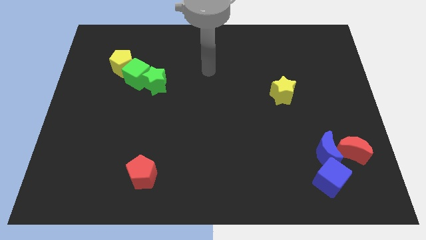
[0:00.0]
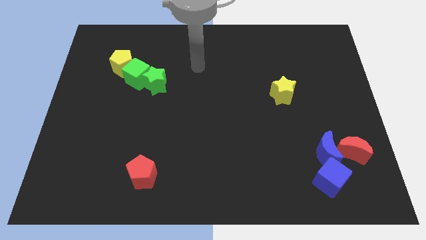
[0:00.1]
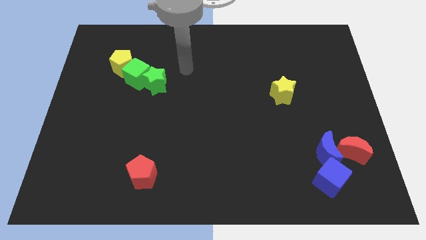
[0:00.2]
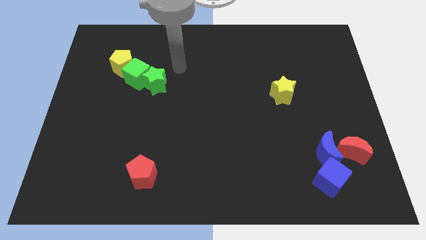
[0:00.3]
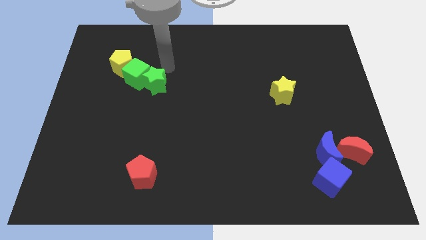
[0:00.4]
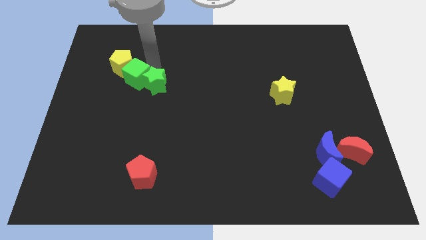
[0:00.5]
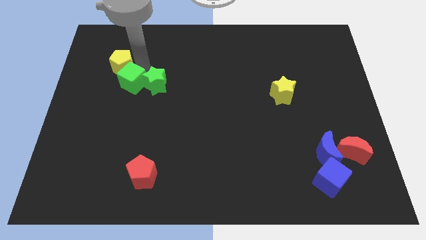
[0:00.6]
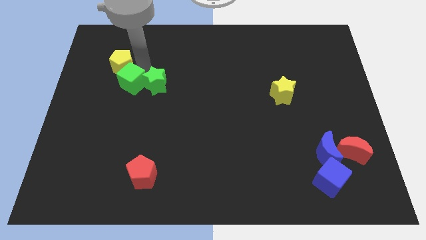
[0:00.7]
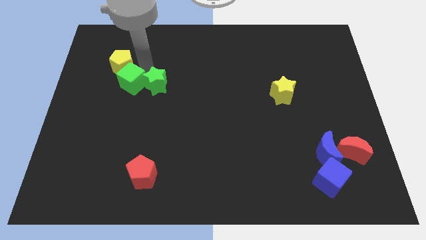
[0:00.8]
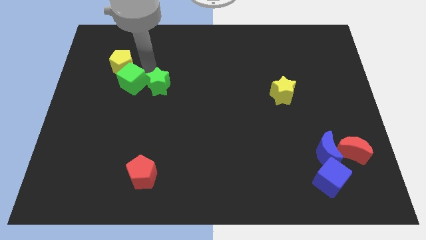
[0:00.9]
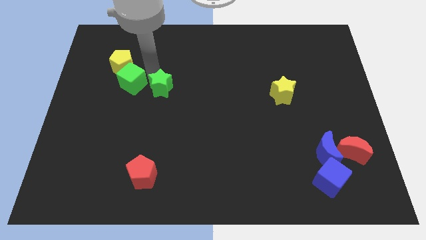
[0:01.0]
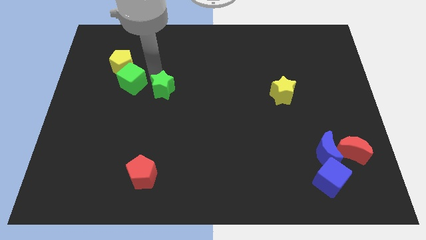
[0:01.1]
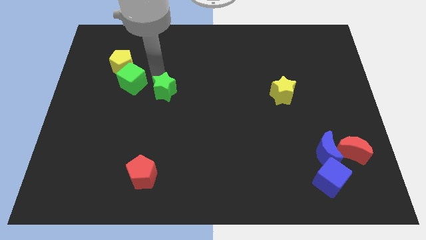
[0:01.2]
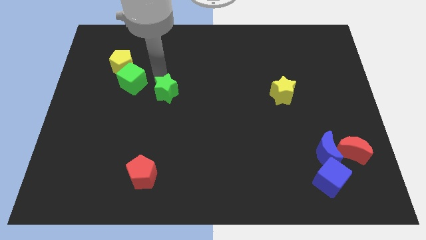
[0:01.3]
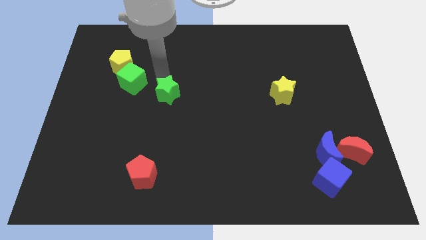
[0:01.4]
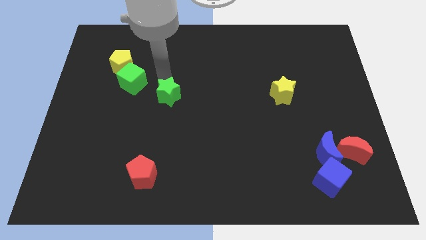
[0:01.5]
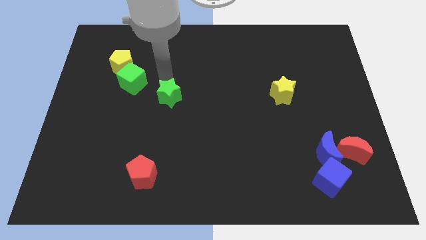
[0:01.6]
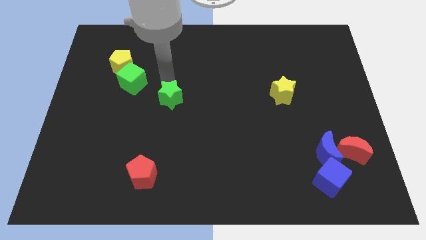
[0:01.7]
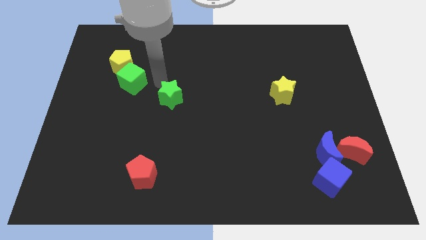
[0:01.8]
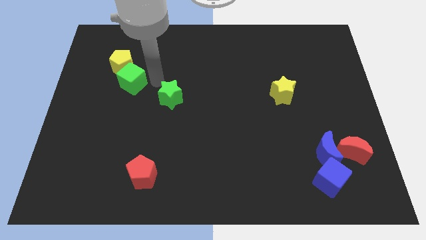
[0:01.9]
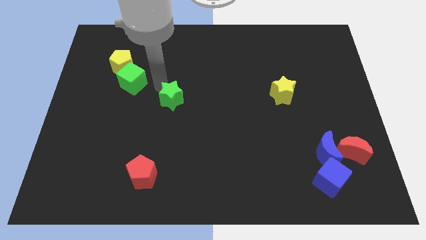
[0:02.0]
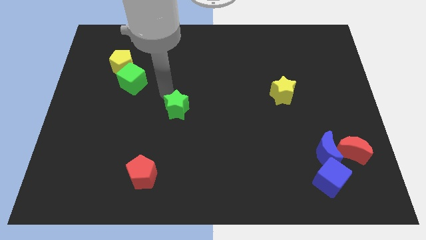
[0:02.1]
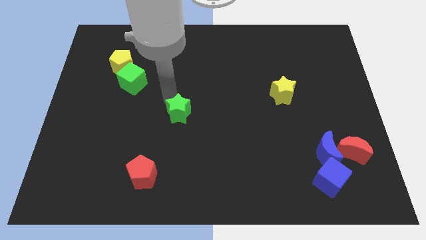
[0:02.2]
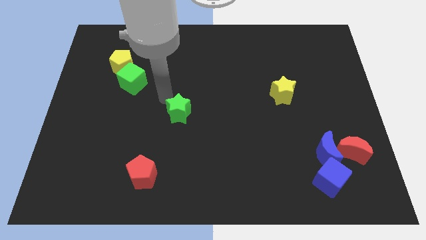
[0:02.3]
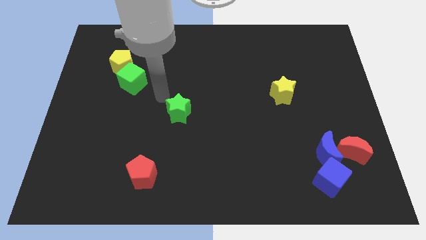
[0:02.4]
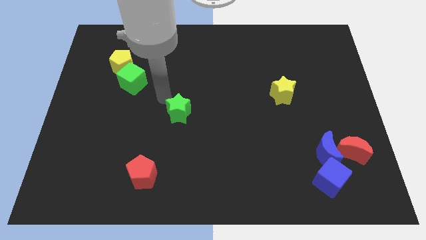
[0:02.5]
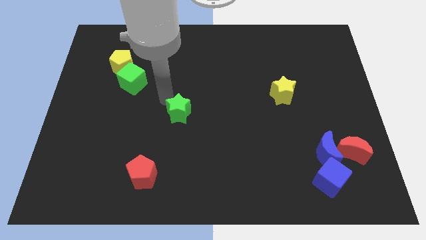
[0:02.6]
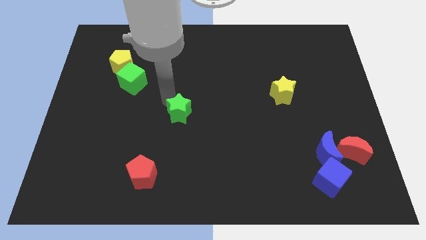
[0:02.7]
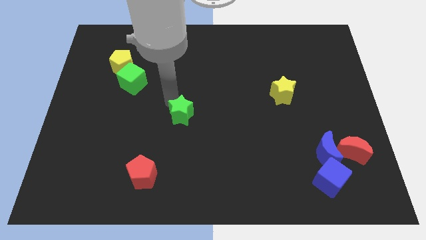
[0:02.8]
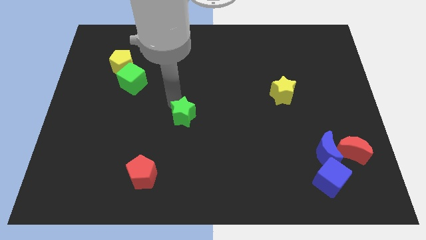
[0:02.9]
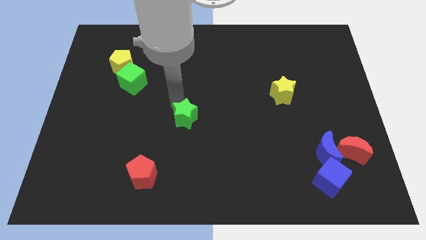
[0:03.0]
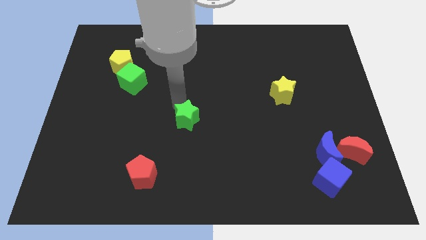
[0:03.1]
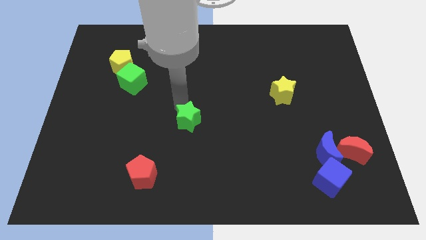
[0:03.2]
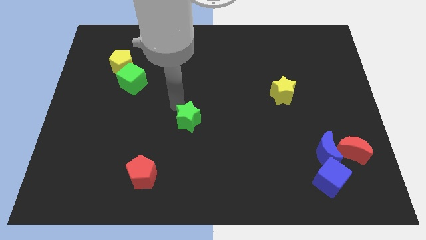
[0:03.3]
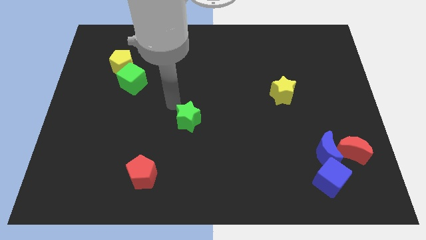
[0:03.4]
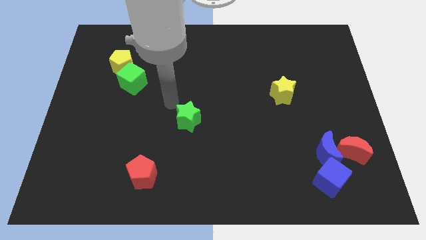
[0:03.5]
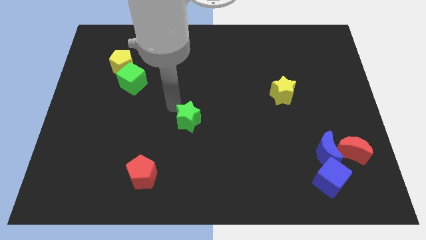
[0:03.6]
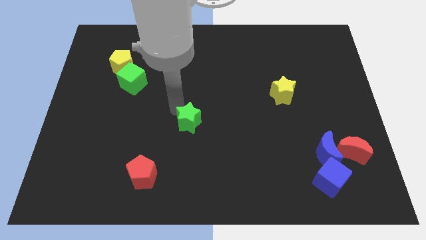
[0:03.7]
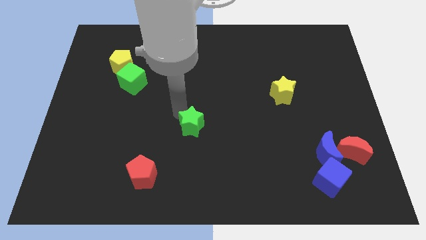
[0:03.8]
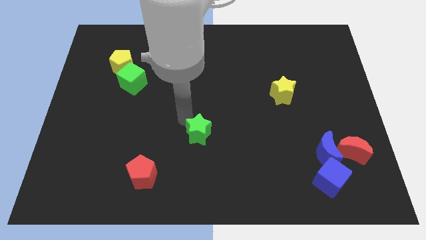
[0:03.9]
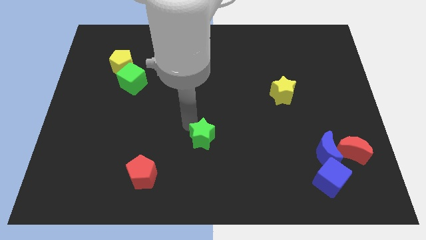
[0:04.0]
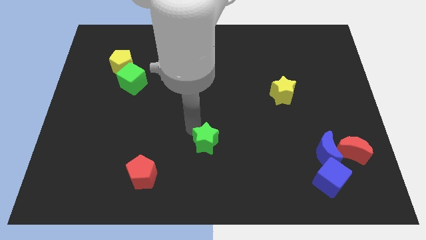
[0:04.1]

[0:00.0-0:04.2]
move the green star diagonally down and right

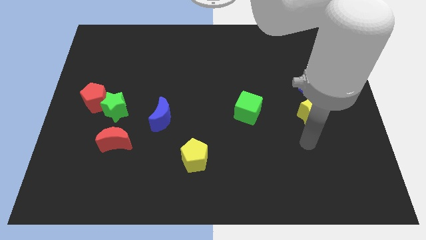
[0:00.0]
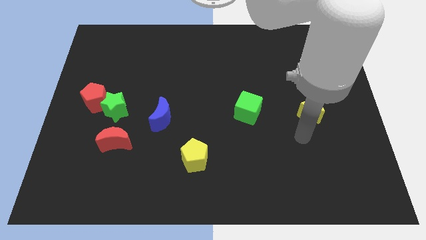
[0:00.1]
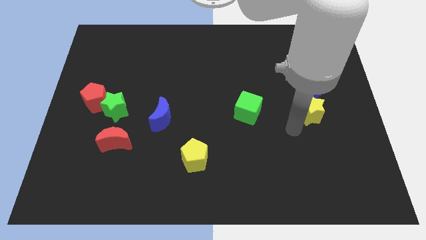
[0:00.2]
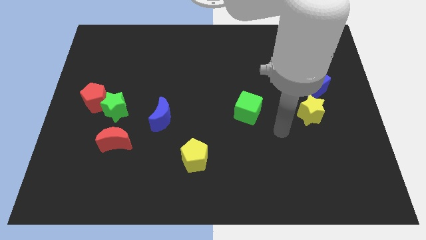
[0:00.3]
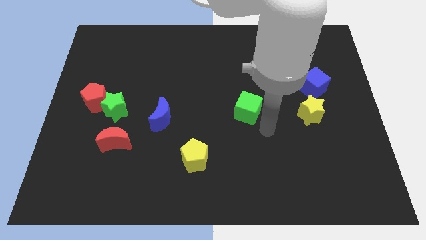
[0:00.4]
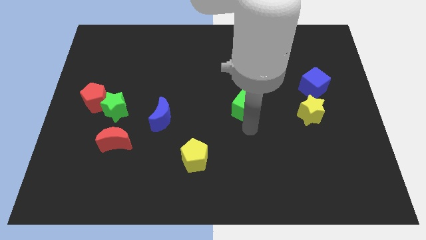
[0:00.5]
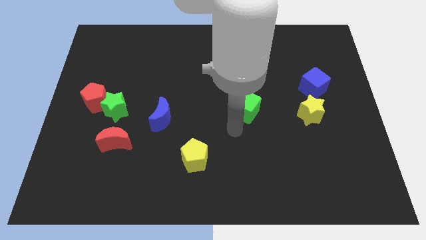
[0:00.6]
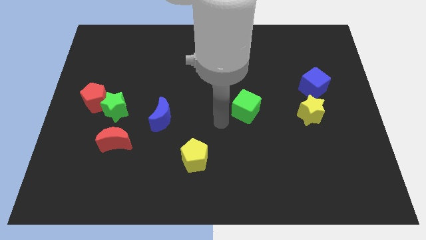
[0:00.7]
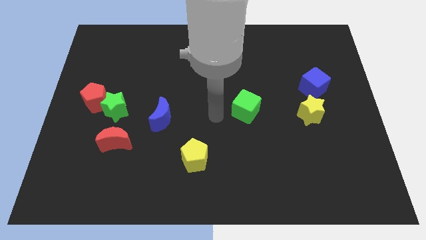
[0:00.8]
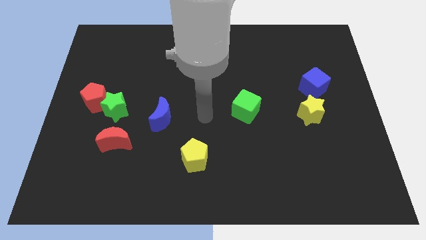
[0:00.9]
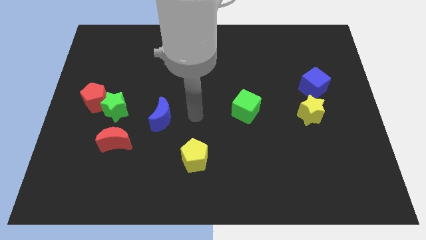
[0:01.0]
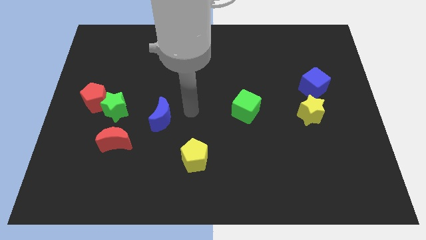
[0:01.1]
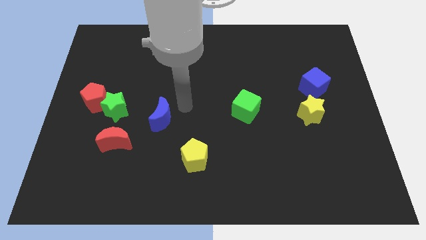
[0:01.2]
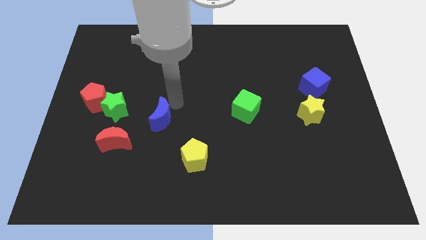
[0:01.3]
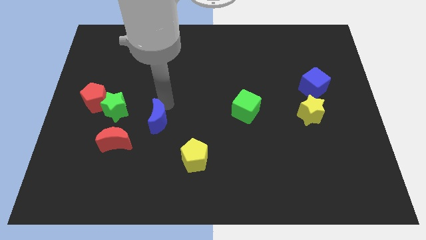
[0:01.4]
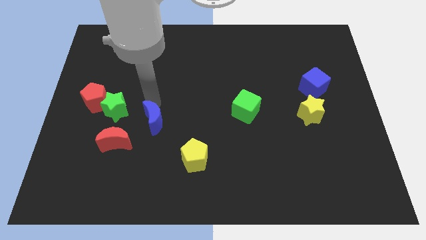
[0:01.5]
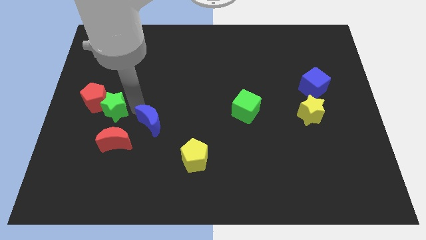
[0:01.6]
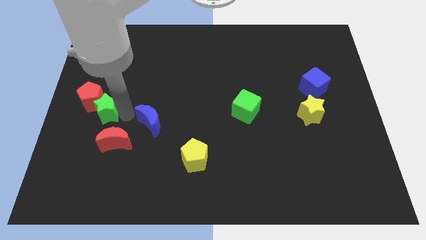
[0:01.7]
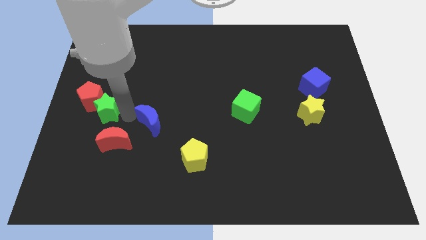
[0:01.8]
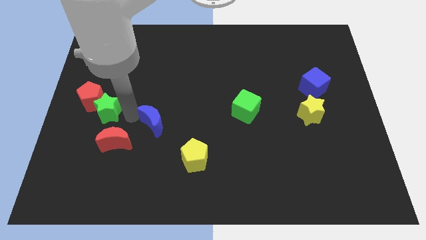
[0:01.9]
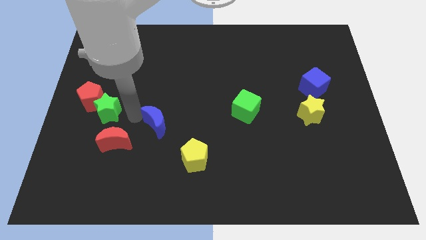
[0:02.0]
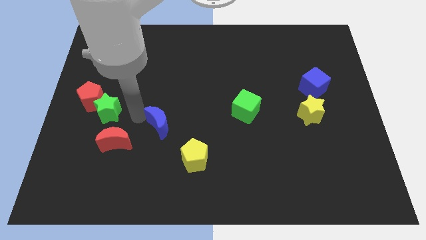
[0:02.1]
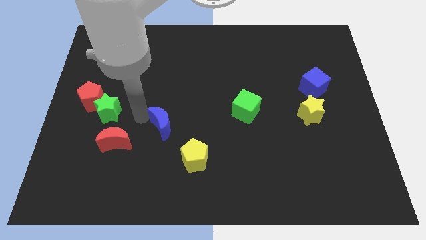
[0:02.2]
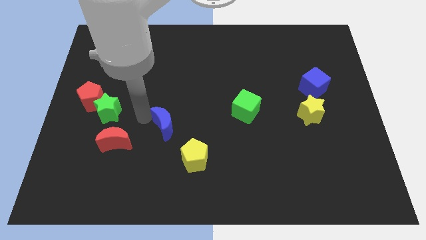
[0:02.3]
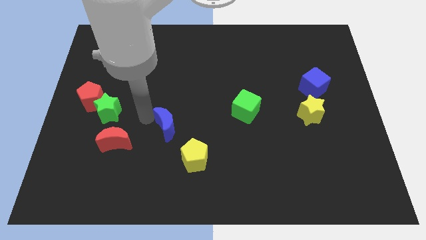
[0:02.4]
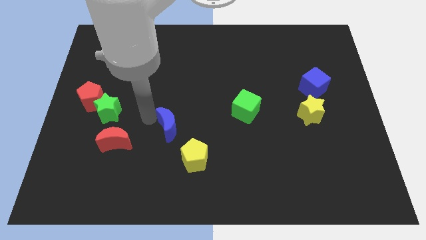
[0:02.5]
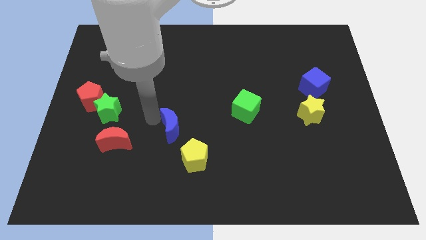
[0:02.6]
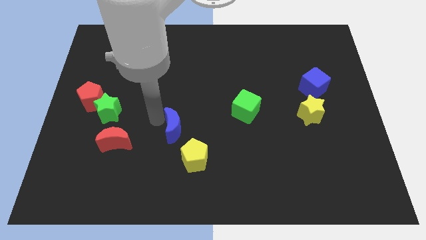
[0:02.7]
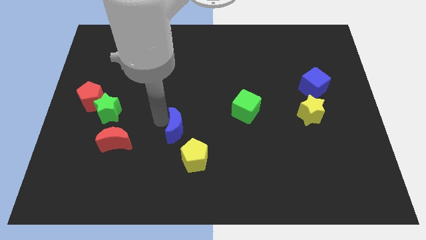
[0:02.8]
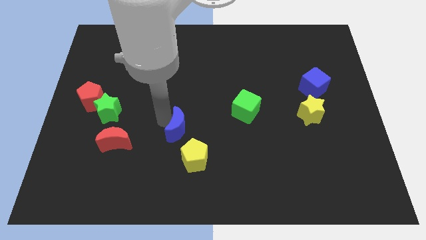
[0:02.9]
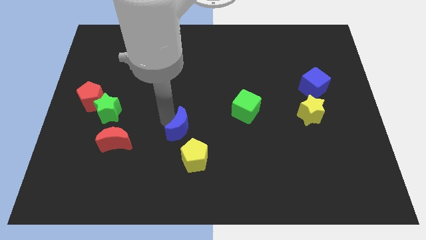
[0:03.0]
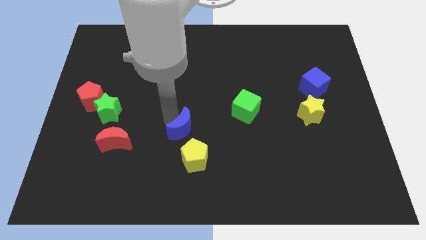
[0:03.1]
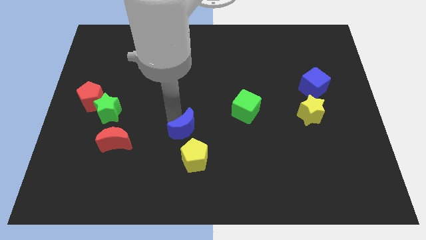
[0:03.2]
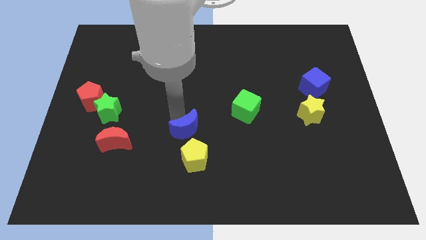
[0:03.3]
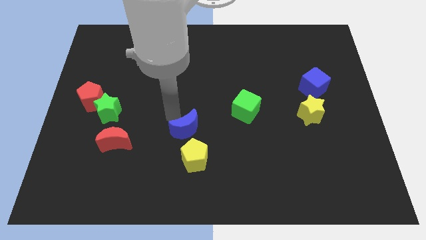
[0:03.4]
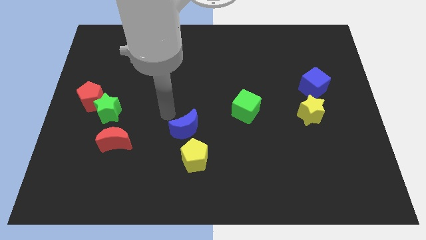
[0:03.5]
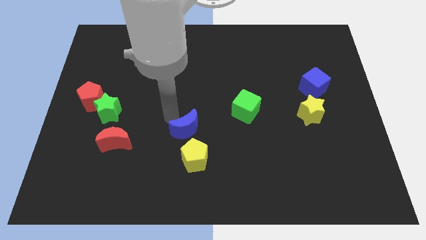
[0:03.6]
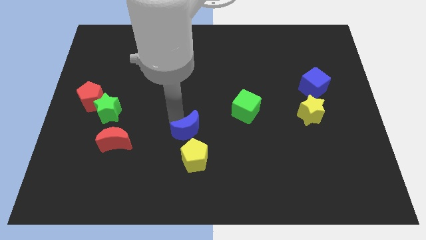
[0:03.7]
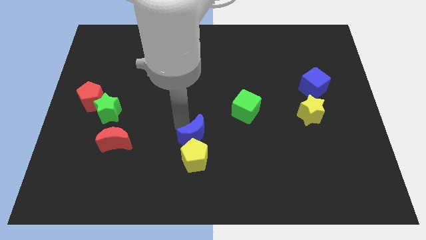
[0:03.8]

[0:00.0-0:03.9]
push the blue moon diagonally downwards and to the right a little bit
